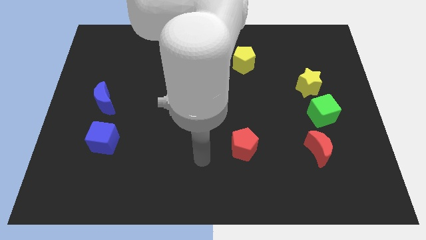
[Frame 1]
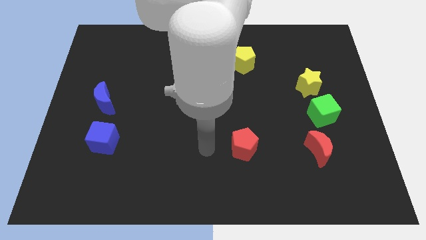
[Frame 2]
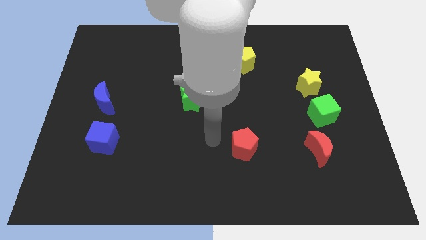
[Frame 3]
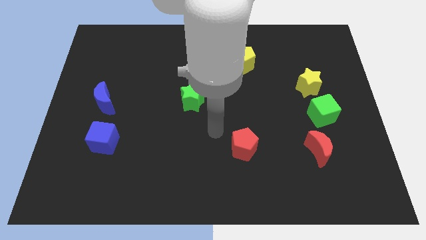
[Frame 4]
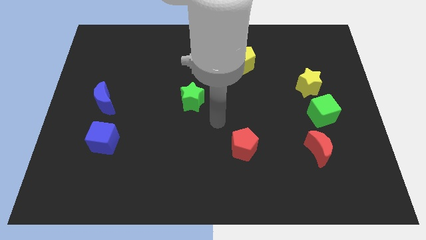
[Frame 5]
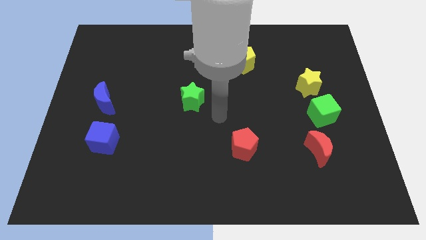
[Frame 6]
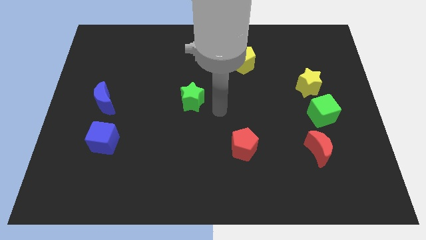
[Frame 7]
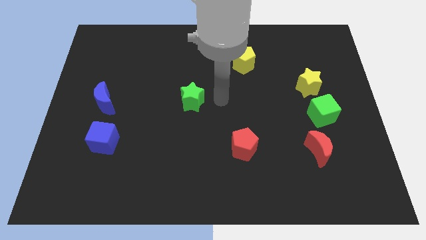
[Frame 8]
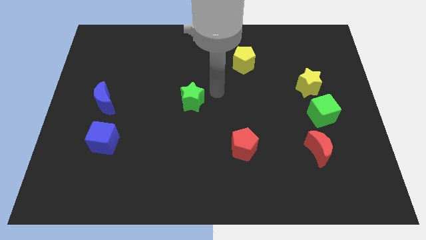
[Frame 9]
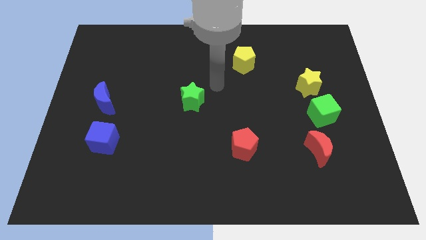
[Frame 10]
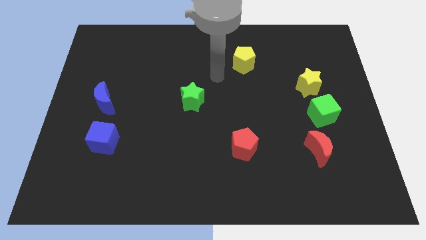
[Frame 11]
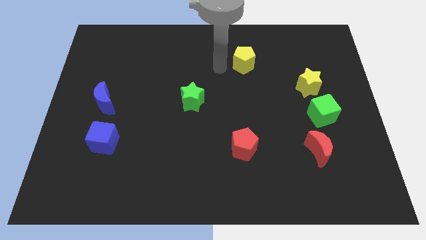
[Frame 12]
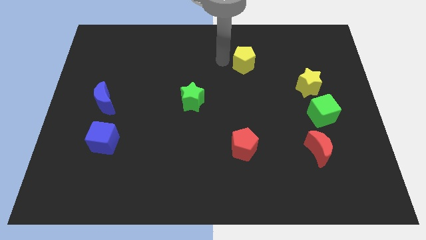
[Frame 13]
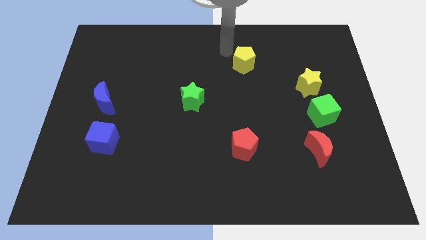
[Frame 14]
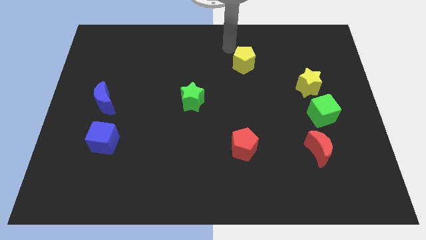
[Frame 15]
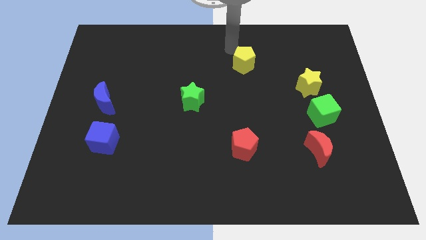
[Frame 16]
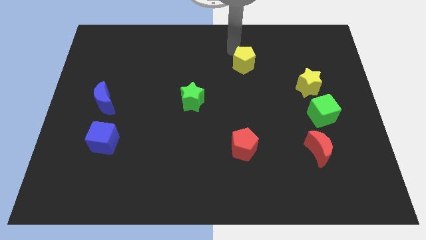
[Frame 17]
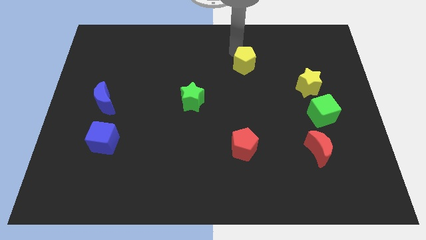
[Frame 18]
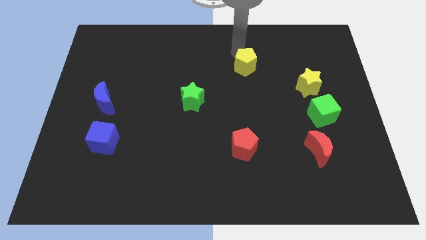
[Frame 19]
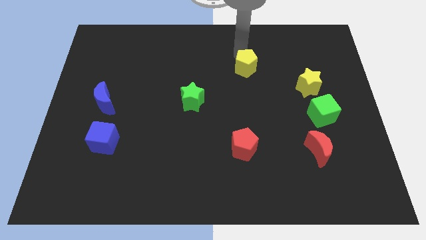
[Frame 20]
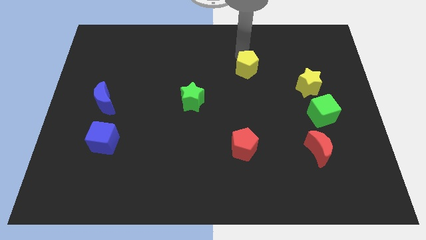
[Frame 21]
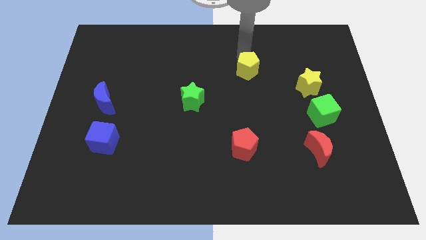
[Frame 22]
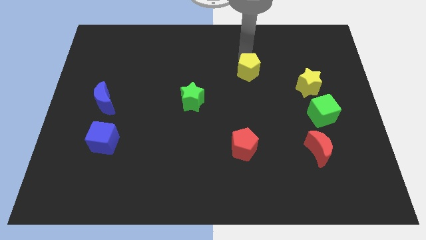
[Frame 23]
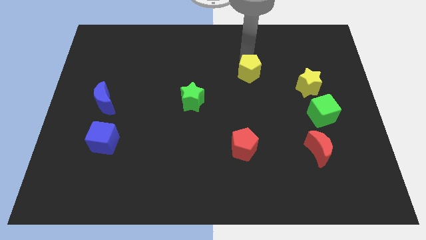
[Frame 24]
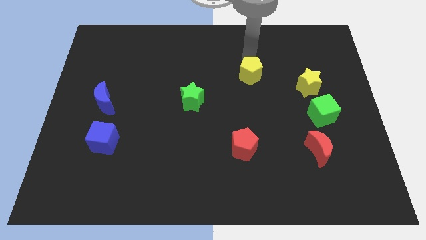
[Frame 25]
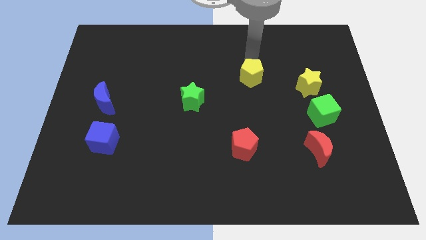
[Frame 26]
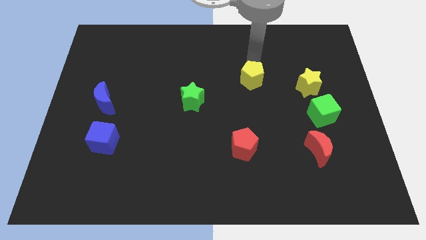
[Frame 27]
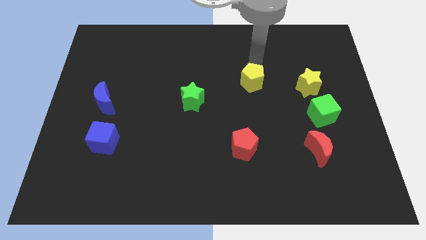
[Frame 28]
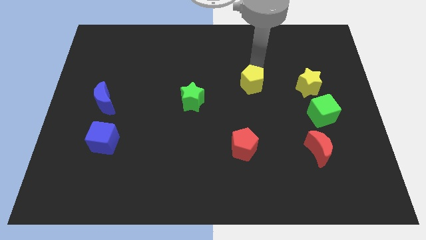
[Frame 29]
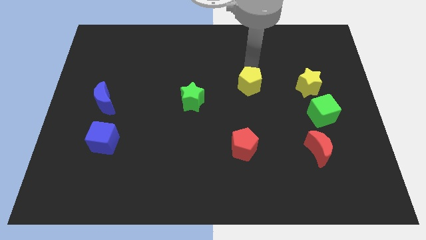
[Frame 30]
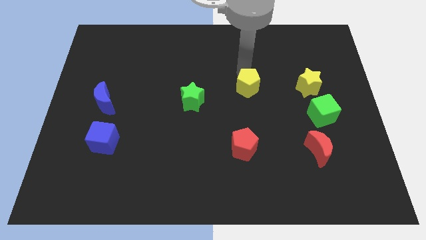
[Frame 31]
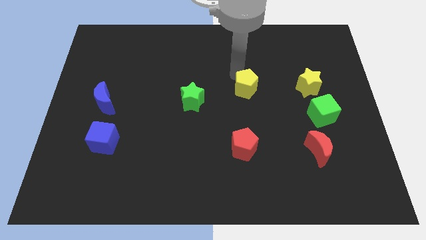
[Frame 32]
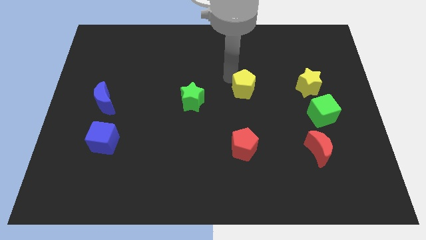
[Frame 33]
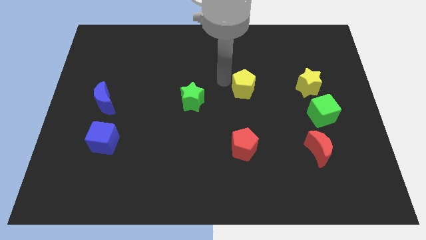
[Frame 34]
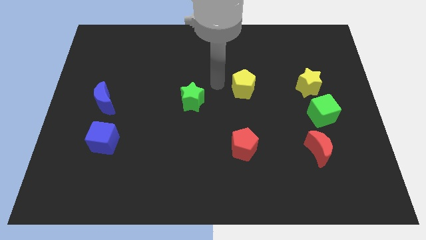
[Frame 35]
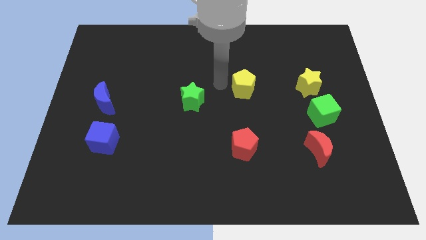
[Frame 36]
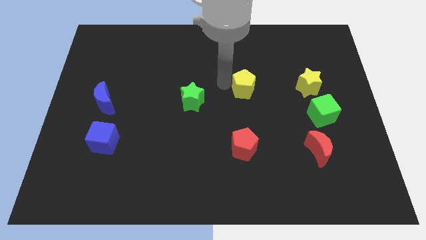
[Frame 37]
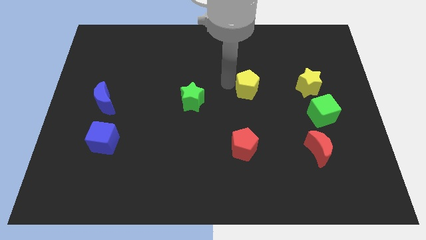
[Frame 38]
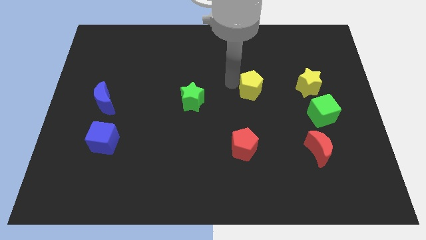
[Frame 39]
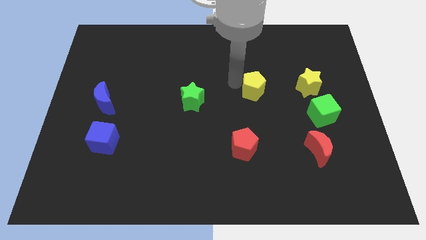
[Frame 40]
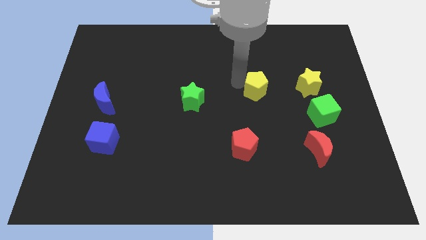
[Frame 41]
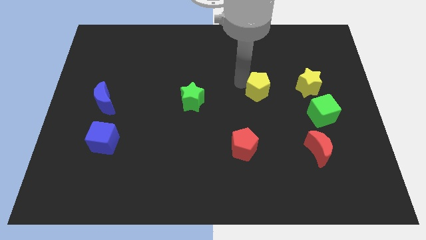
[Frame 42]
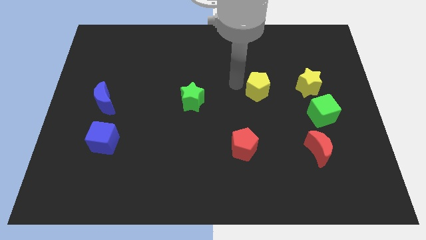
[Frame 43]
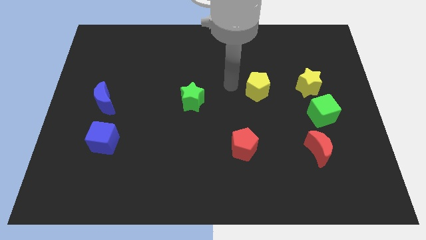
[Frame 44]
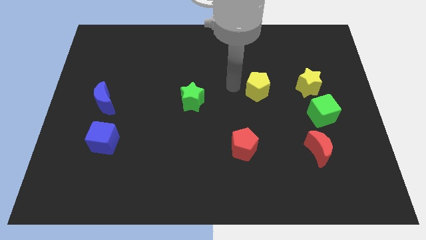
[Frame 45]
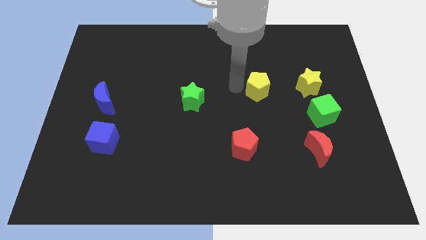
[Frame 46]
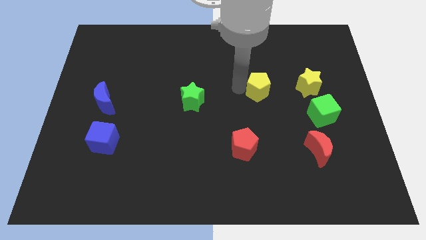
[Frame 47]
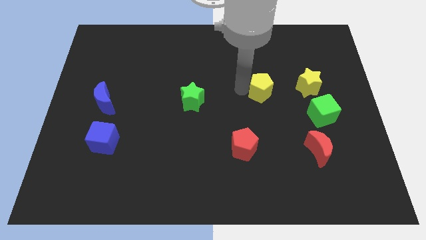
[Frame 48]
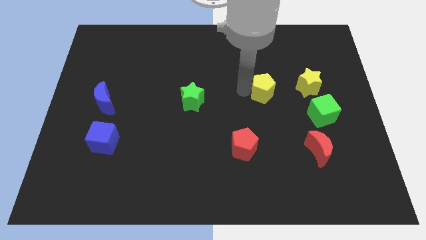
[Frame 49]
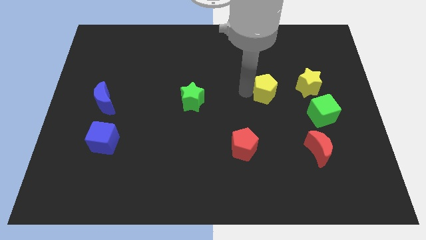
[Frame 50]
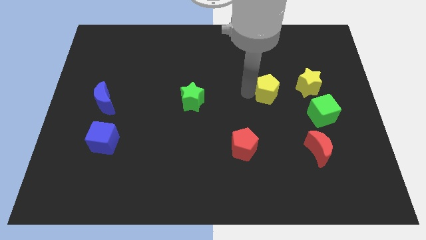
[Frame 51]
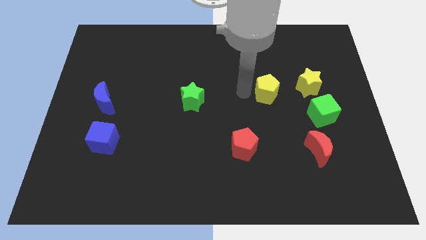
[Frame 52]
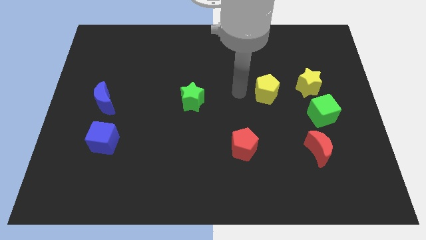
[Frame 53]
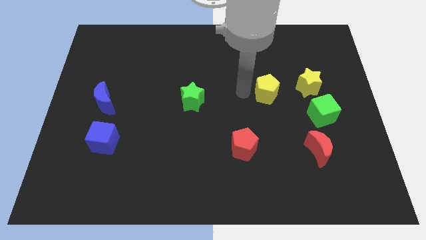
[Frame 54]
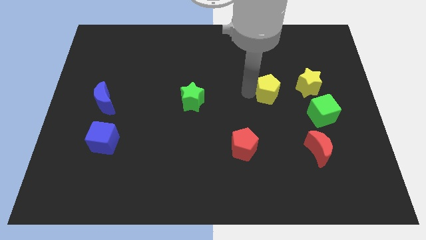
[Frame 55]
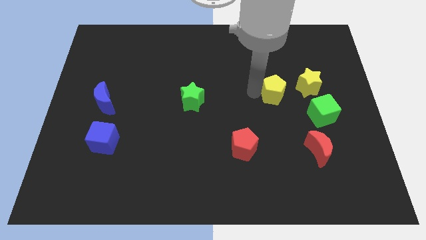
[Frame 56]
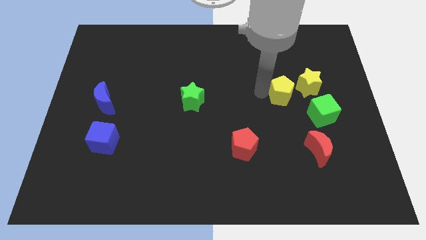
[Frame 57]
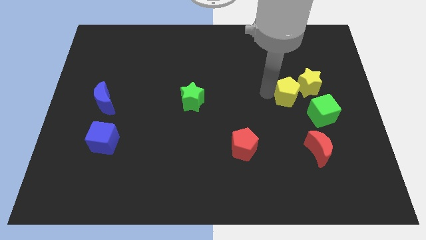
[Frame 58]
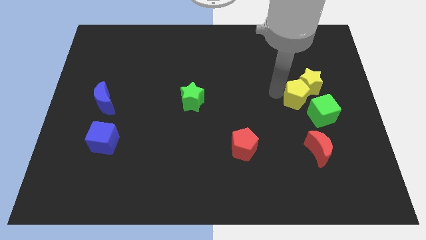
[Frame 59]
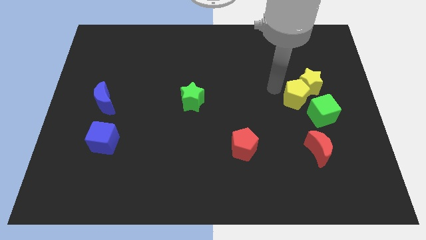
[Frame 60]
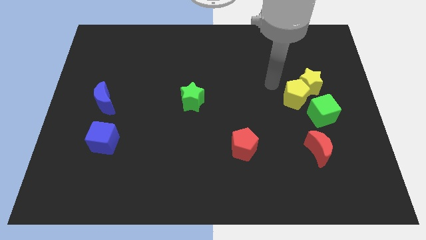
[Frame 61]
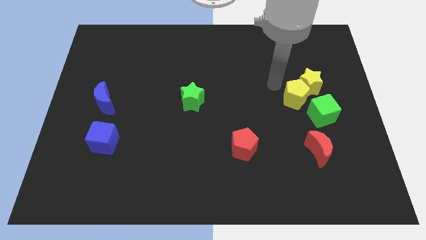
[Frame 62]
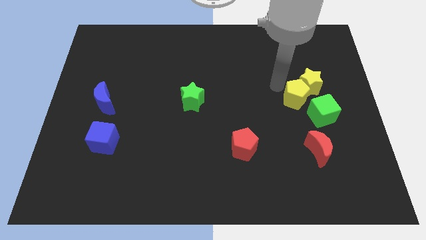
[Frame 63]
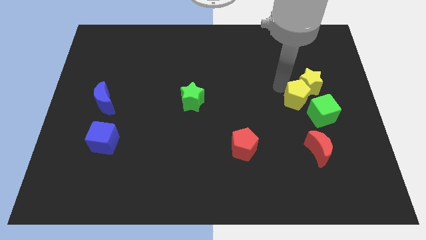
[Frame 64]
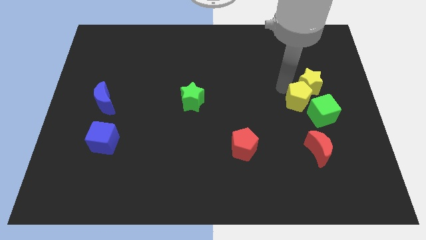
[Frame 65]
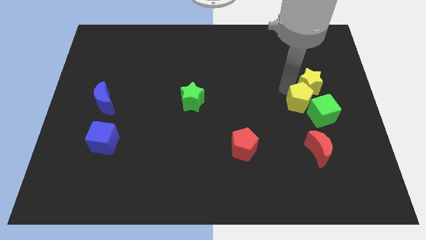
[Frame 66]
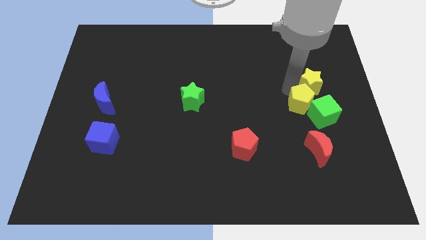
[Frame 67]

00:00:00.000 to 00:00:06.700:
put the yellow pentagon to the green cube

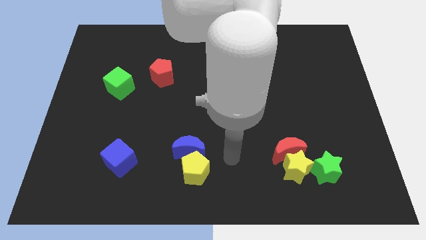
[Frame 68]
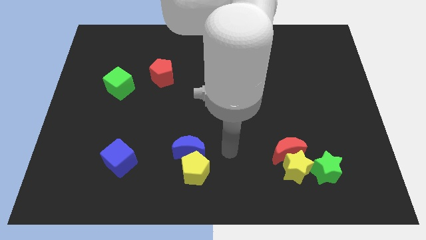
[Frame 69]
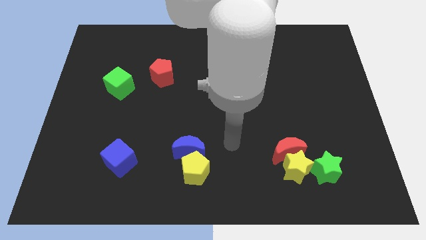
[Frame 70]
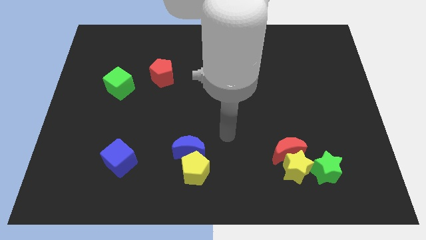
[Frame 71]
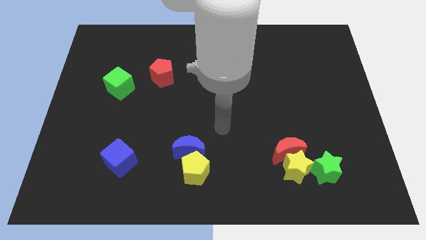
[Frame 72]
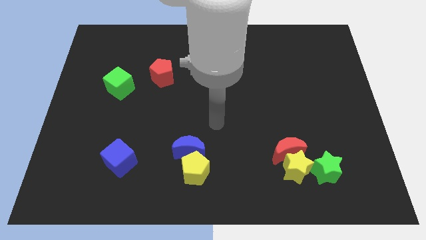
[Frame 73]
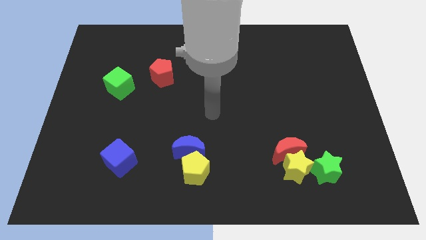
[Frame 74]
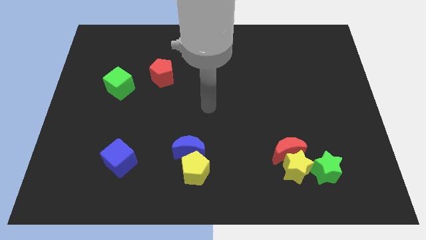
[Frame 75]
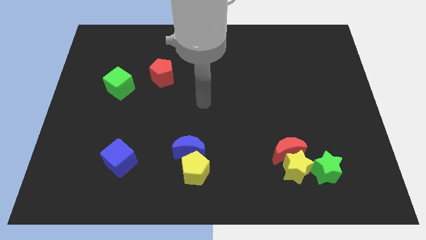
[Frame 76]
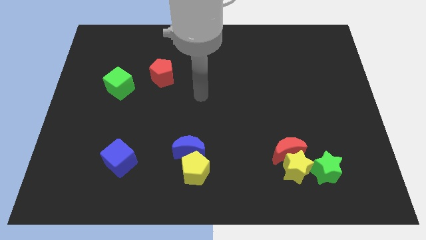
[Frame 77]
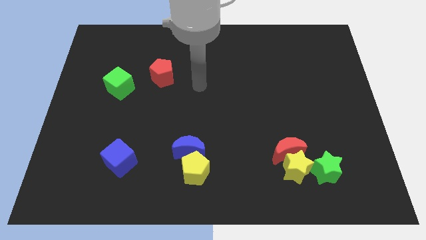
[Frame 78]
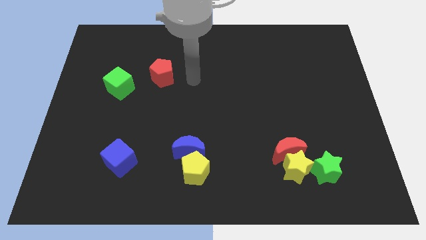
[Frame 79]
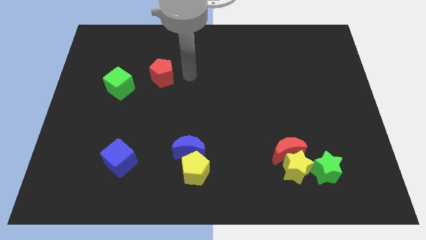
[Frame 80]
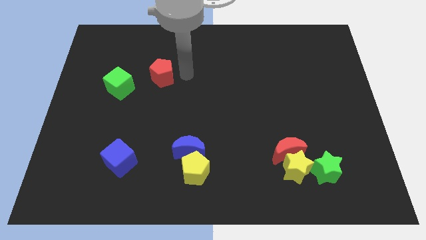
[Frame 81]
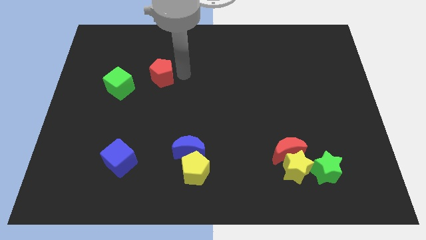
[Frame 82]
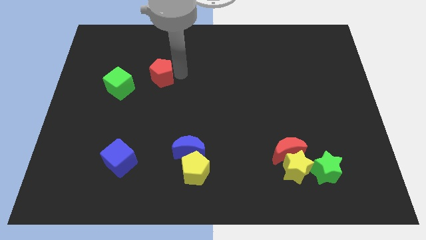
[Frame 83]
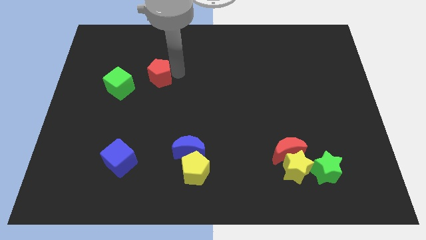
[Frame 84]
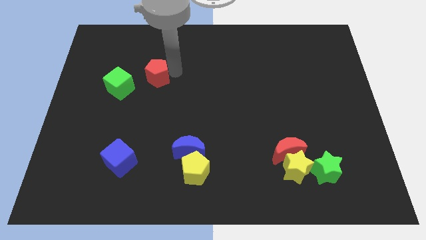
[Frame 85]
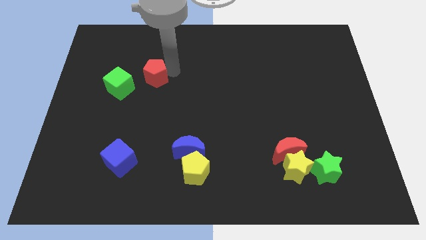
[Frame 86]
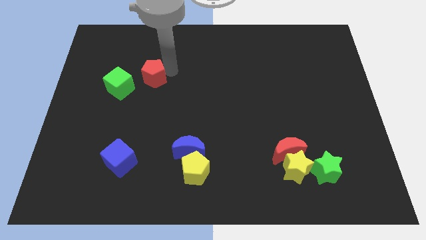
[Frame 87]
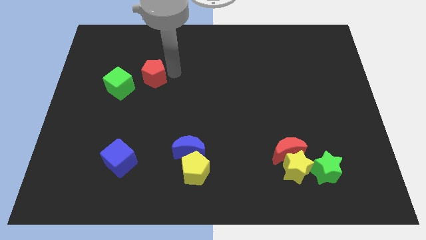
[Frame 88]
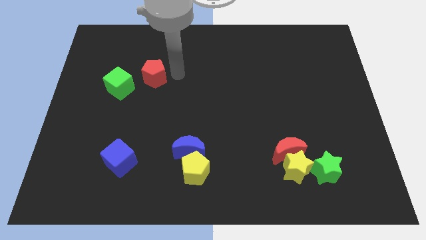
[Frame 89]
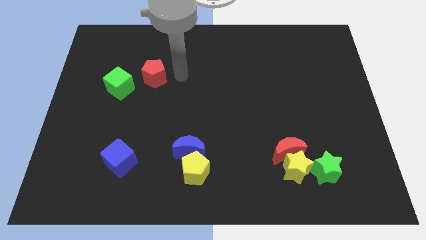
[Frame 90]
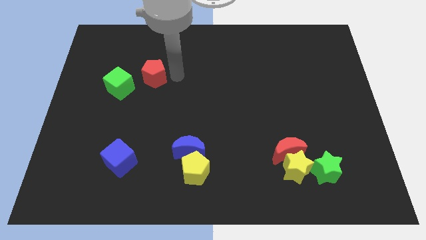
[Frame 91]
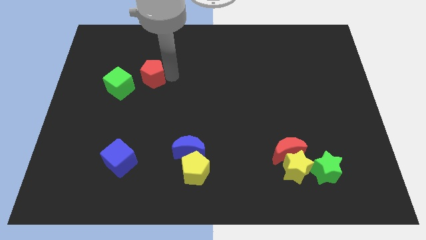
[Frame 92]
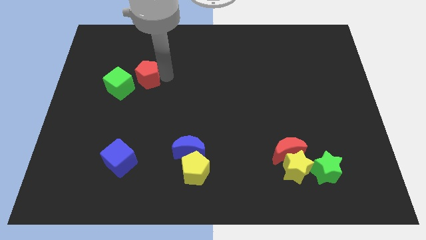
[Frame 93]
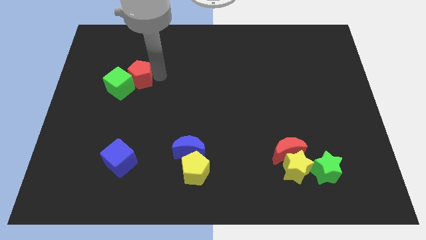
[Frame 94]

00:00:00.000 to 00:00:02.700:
put the red pentagon towards the green cube
